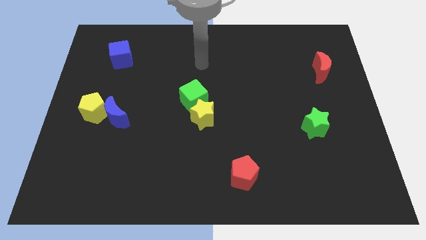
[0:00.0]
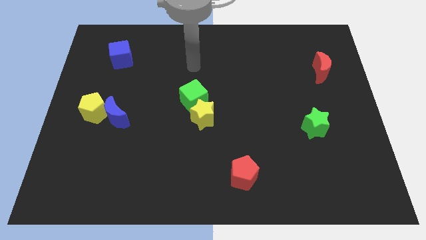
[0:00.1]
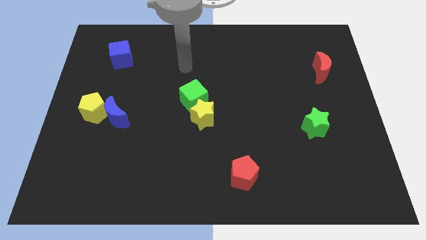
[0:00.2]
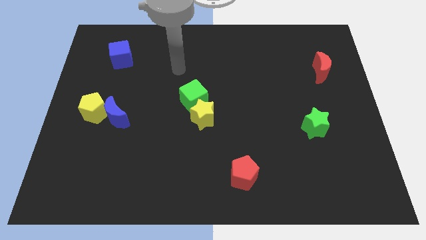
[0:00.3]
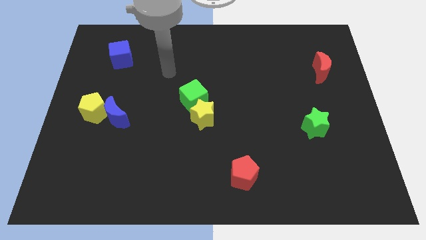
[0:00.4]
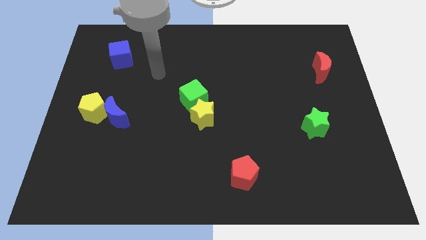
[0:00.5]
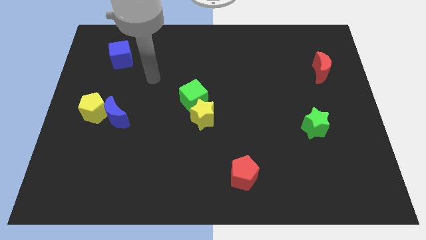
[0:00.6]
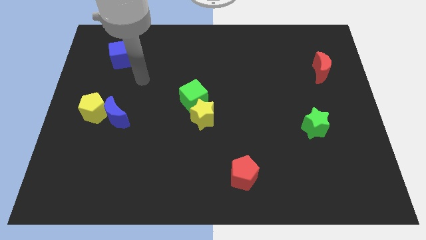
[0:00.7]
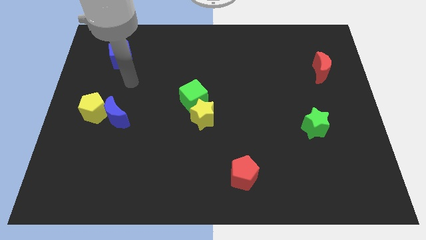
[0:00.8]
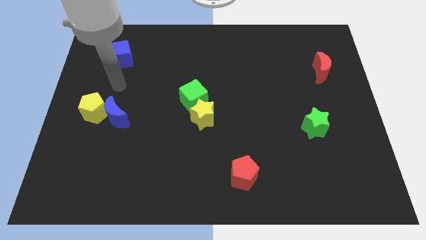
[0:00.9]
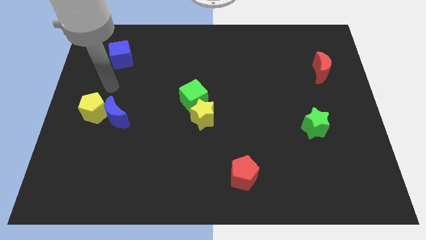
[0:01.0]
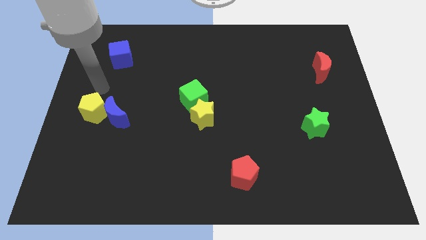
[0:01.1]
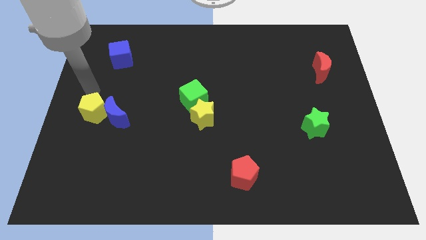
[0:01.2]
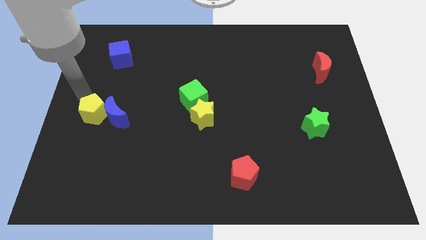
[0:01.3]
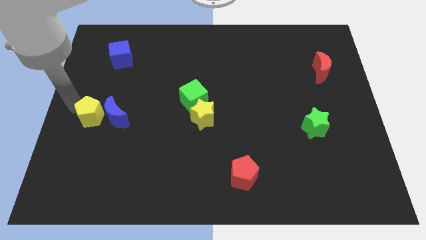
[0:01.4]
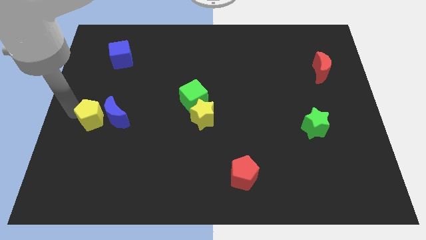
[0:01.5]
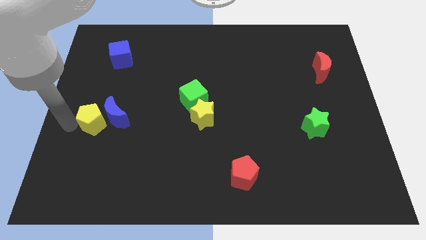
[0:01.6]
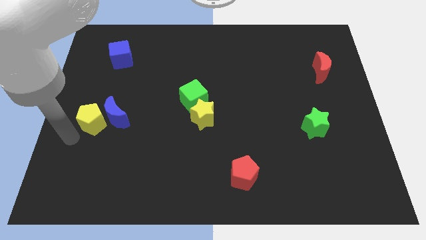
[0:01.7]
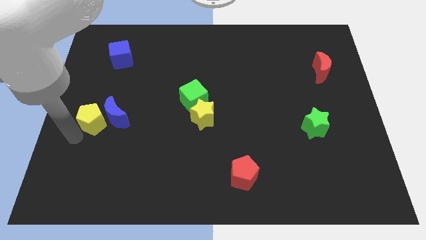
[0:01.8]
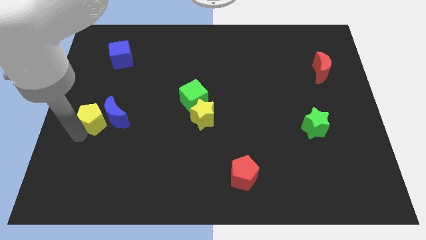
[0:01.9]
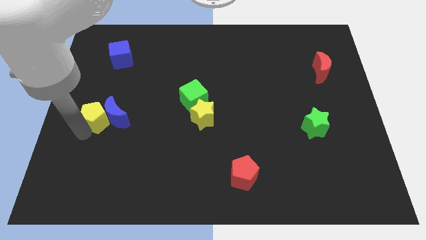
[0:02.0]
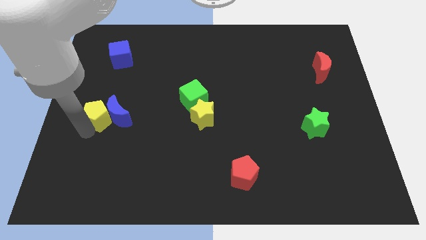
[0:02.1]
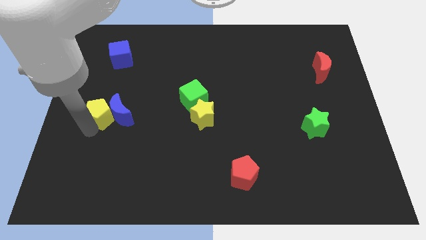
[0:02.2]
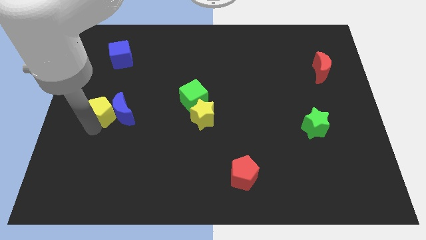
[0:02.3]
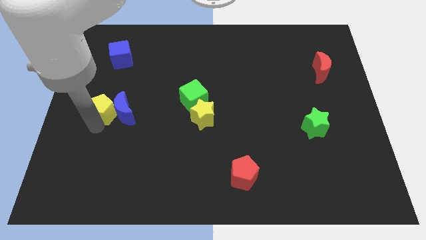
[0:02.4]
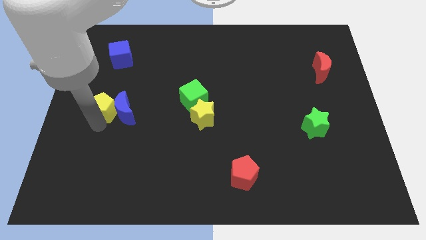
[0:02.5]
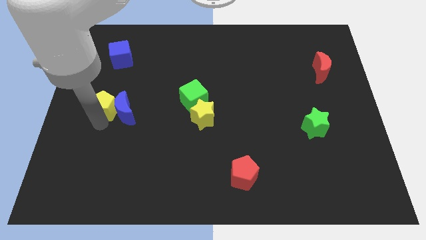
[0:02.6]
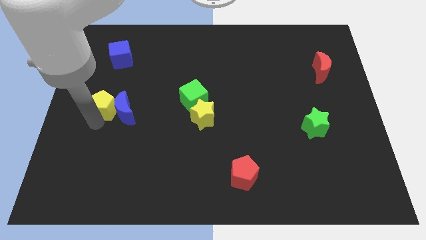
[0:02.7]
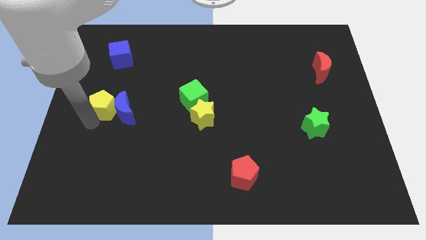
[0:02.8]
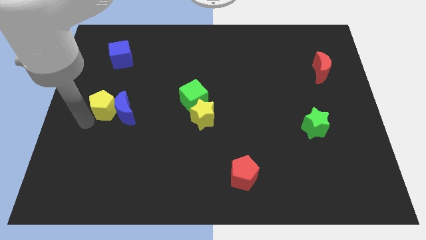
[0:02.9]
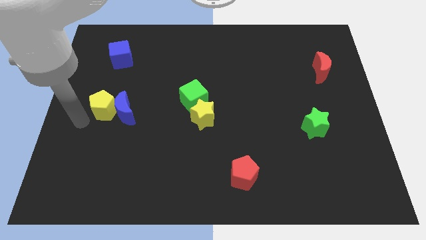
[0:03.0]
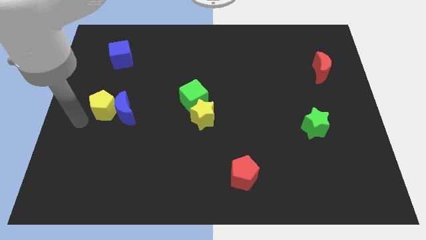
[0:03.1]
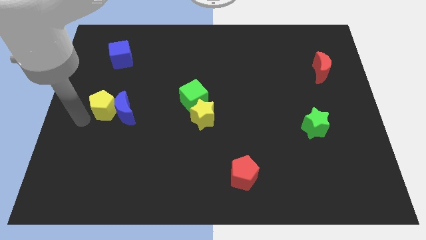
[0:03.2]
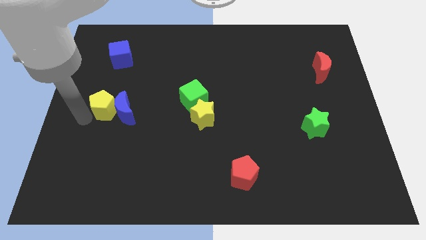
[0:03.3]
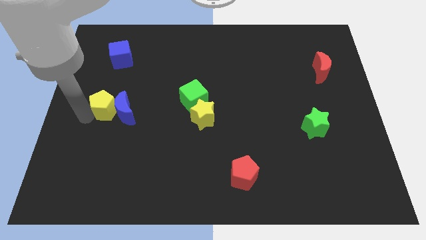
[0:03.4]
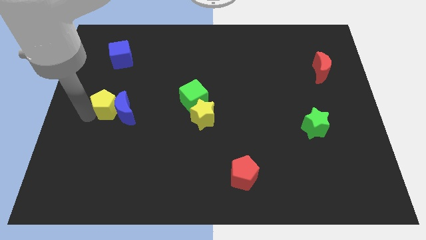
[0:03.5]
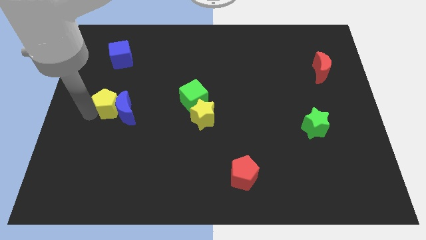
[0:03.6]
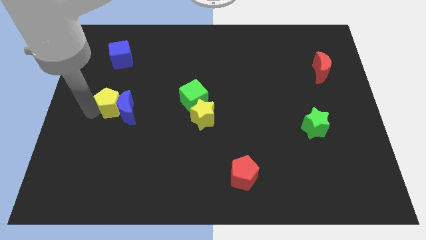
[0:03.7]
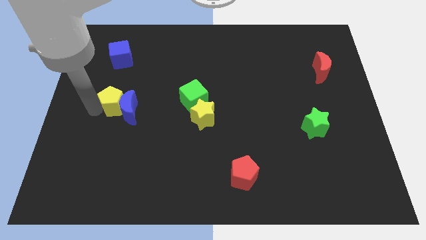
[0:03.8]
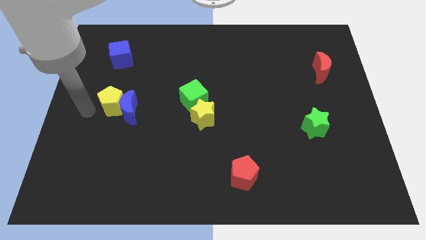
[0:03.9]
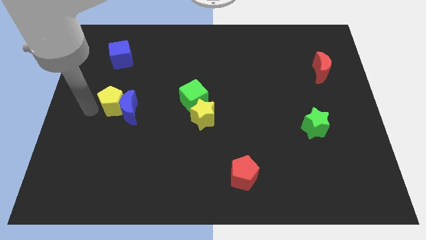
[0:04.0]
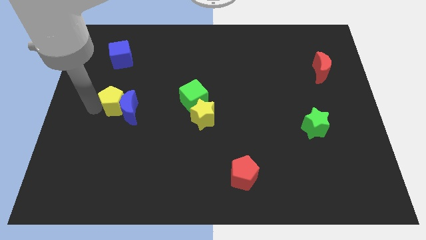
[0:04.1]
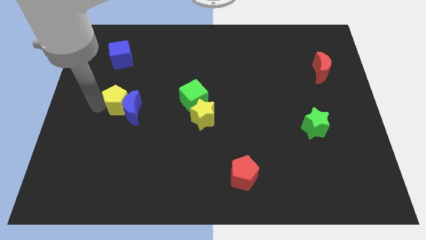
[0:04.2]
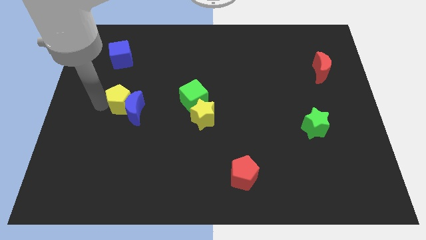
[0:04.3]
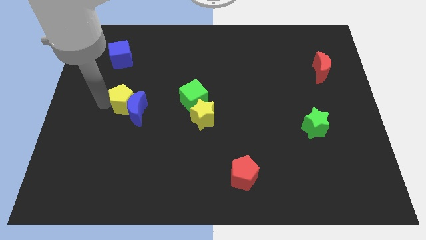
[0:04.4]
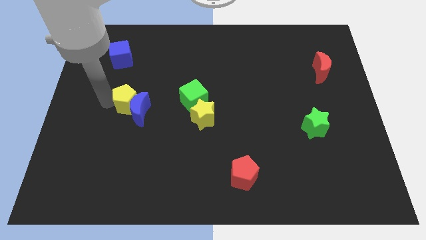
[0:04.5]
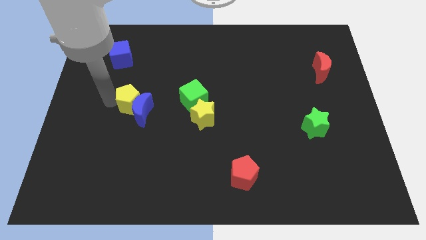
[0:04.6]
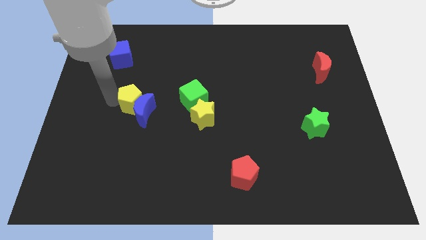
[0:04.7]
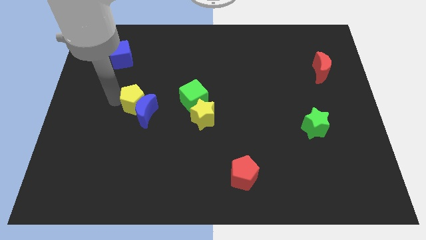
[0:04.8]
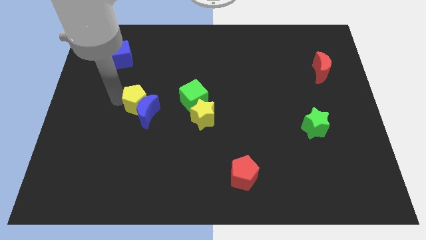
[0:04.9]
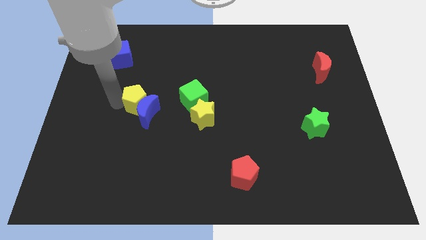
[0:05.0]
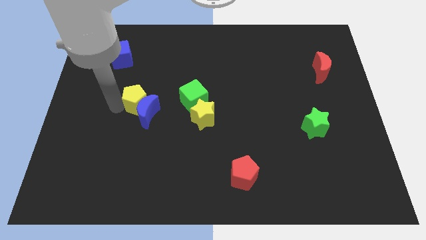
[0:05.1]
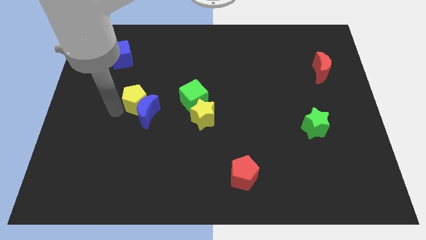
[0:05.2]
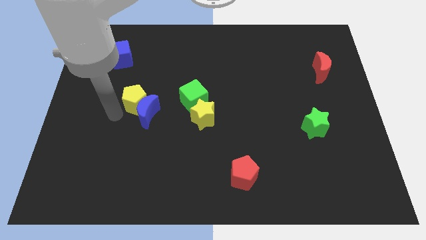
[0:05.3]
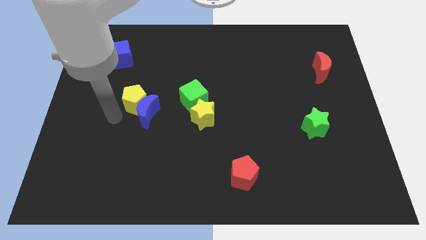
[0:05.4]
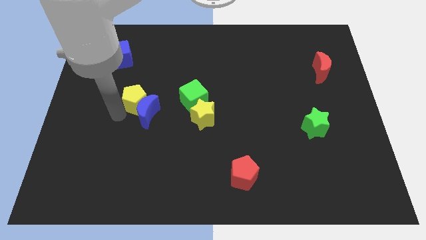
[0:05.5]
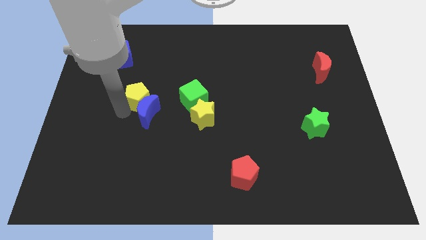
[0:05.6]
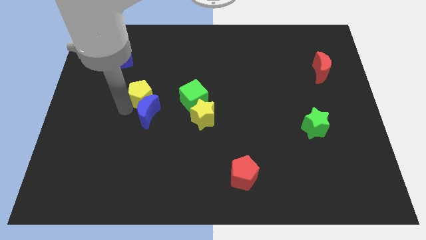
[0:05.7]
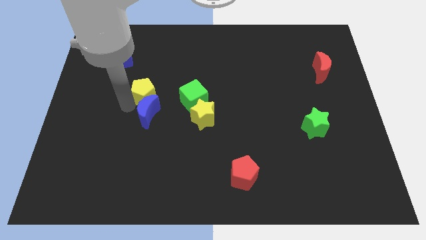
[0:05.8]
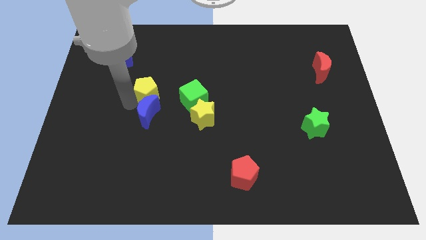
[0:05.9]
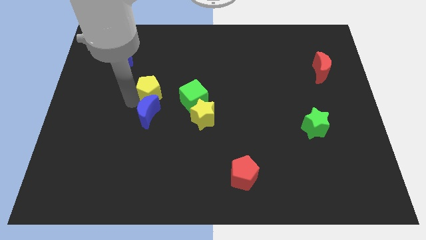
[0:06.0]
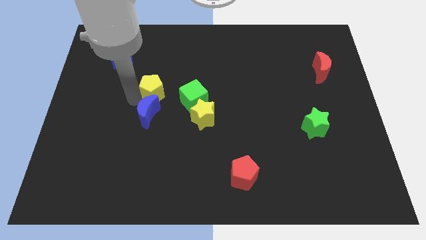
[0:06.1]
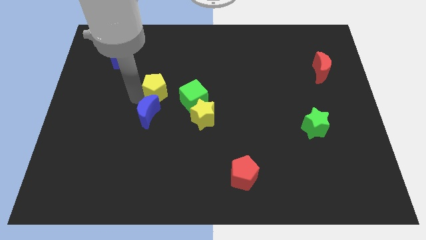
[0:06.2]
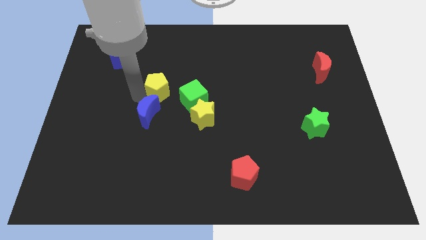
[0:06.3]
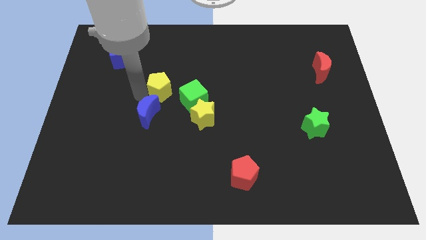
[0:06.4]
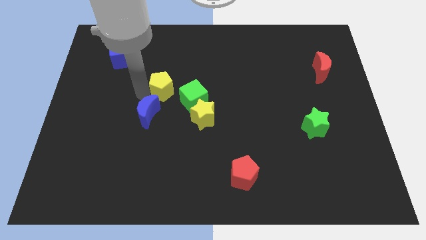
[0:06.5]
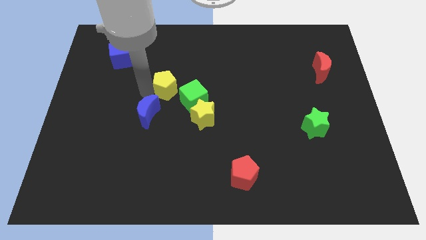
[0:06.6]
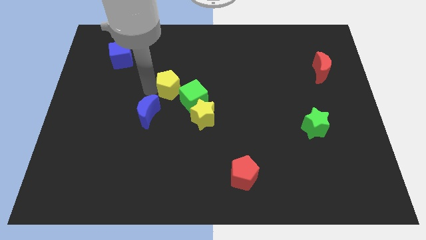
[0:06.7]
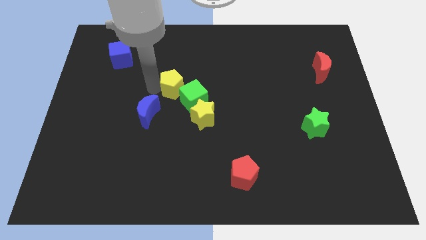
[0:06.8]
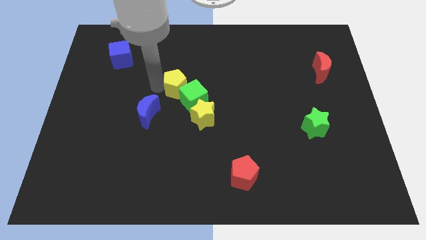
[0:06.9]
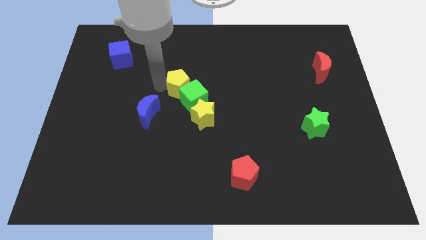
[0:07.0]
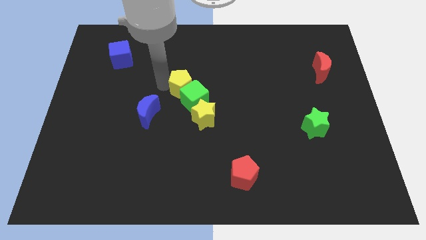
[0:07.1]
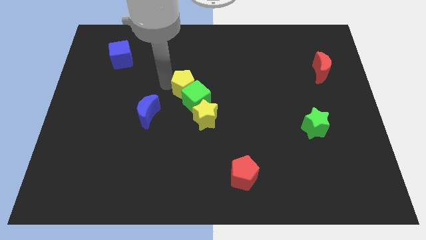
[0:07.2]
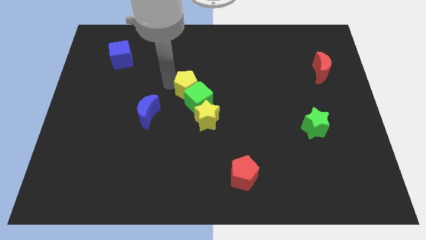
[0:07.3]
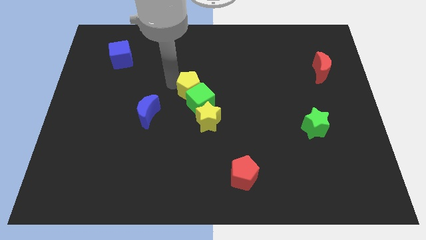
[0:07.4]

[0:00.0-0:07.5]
push the yellow pentagon to the top of the yellow star
